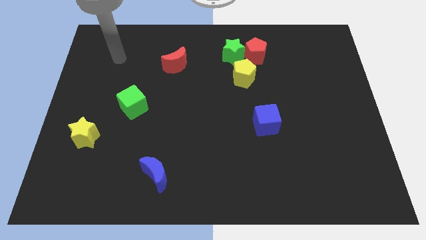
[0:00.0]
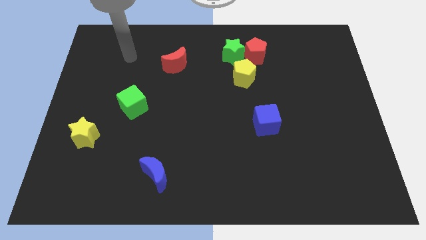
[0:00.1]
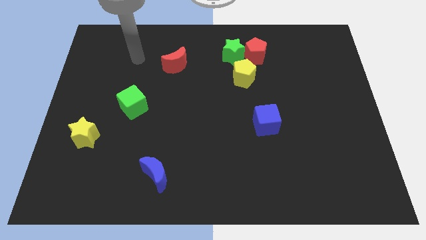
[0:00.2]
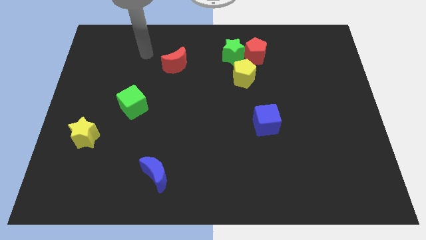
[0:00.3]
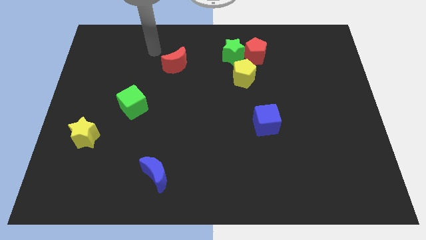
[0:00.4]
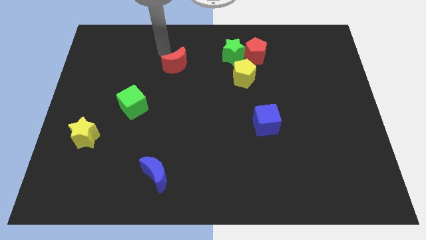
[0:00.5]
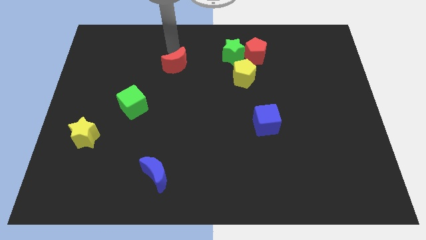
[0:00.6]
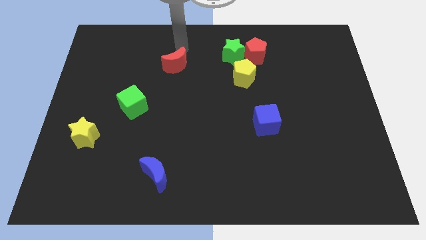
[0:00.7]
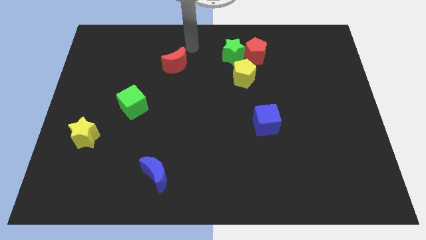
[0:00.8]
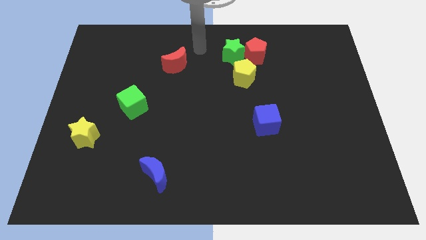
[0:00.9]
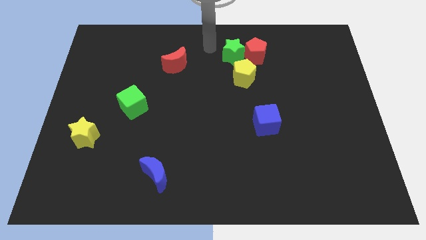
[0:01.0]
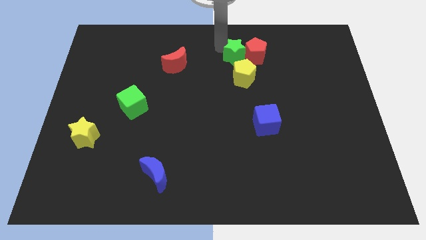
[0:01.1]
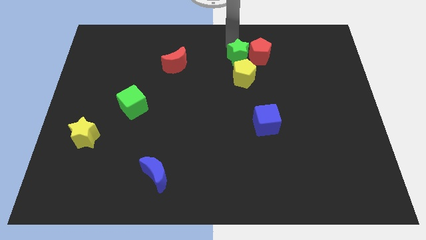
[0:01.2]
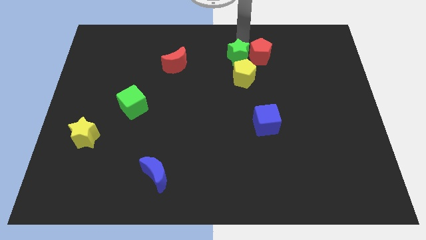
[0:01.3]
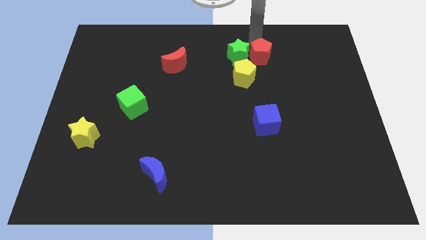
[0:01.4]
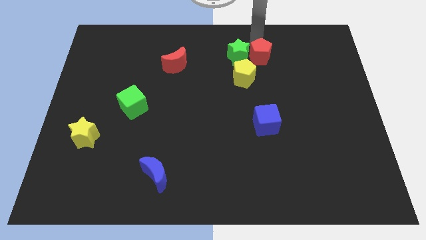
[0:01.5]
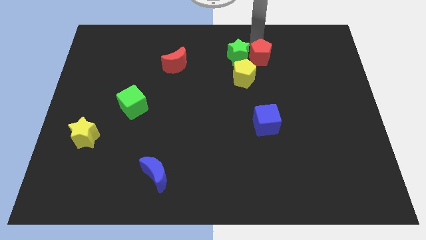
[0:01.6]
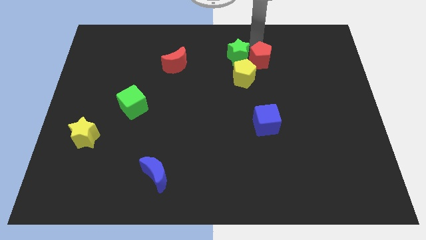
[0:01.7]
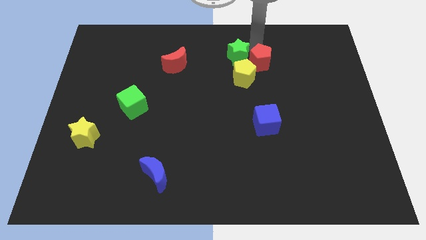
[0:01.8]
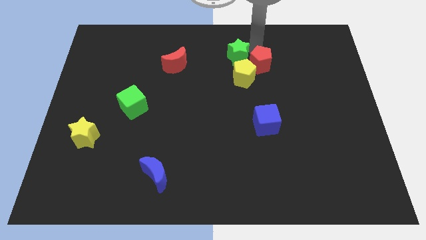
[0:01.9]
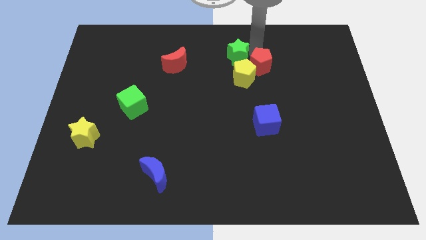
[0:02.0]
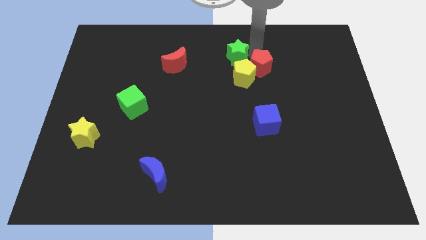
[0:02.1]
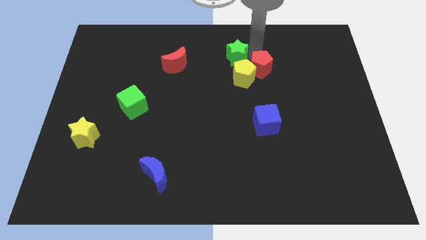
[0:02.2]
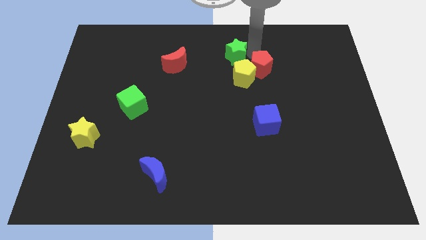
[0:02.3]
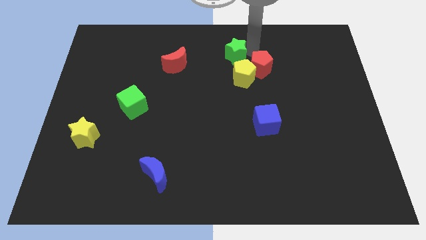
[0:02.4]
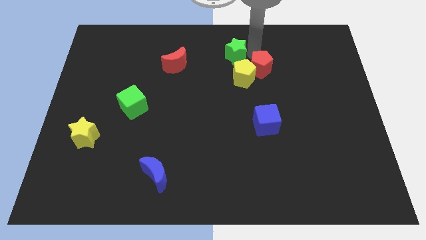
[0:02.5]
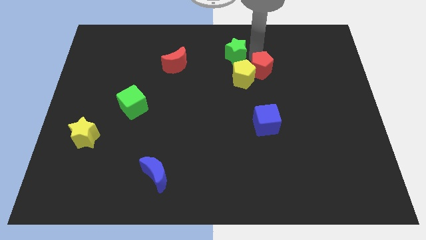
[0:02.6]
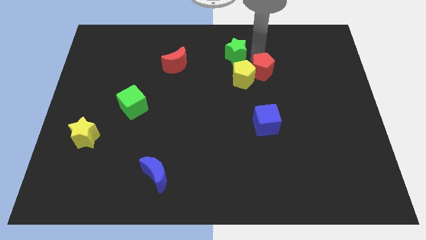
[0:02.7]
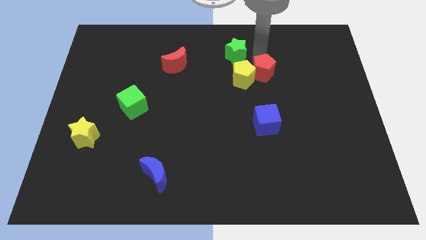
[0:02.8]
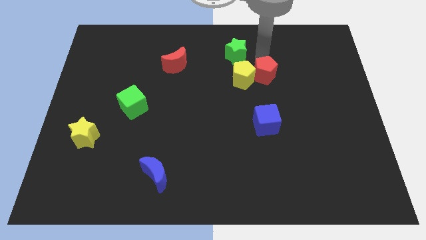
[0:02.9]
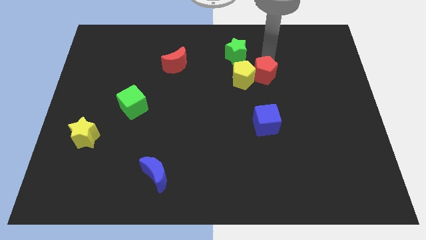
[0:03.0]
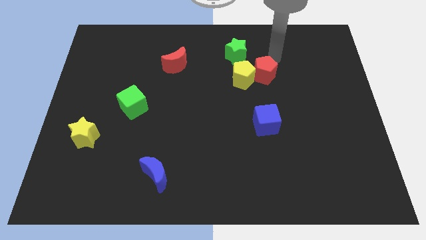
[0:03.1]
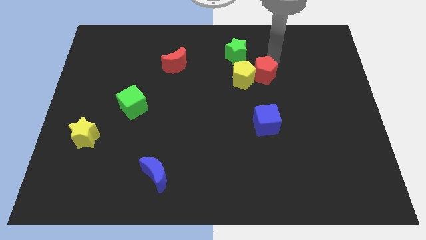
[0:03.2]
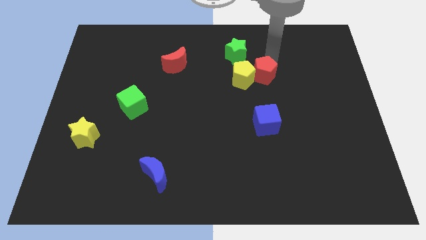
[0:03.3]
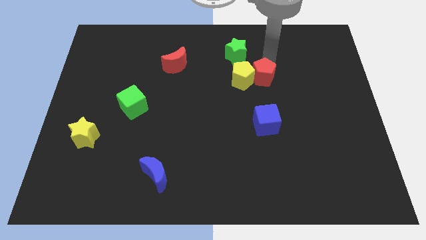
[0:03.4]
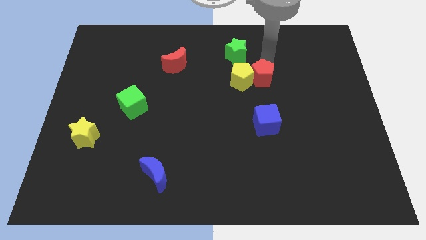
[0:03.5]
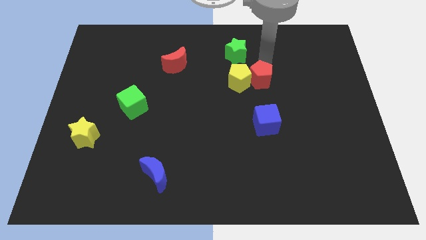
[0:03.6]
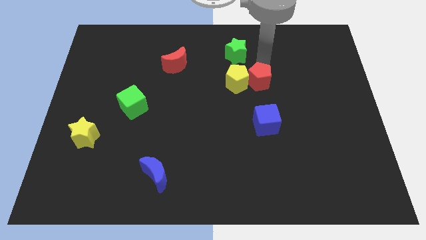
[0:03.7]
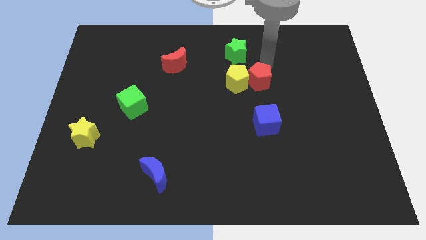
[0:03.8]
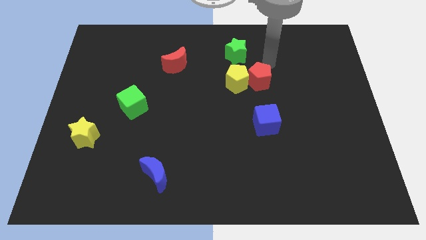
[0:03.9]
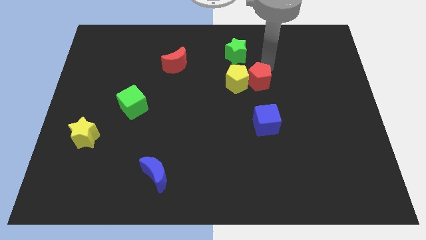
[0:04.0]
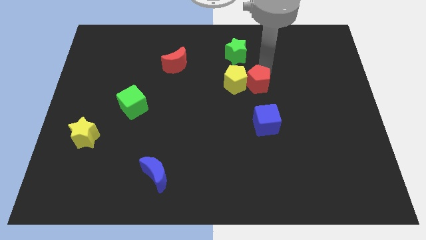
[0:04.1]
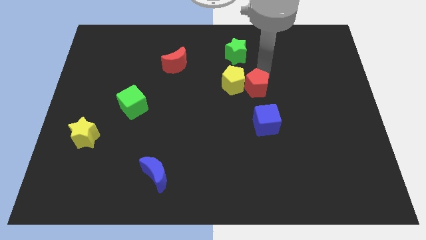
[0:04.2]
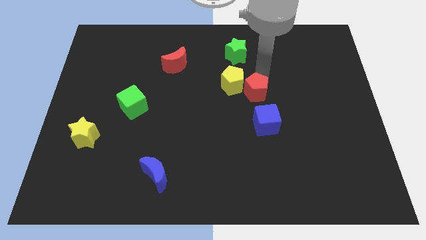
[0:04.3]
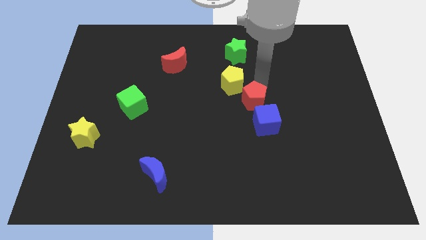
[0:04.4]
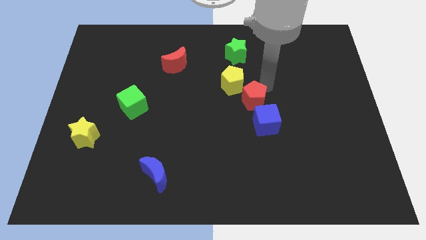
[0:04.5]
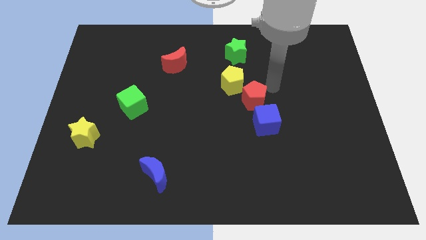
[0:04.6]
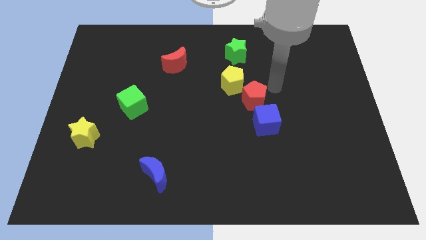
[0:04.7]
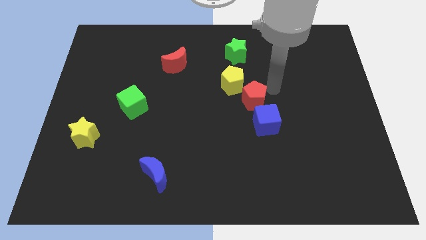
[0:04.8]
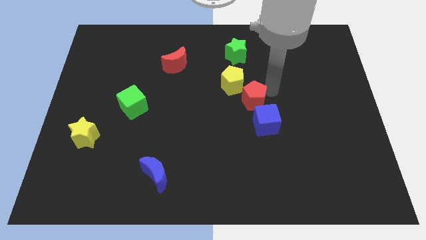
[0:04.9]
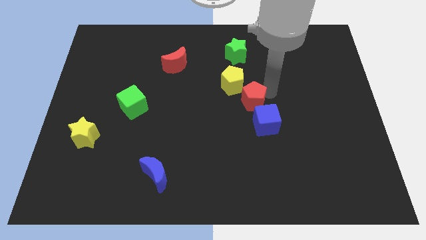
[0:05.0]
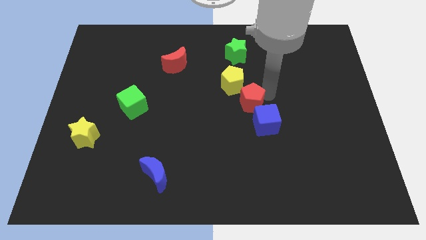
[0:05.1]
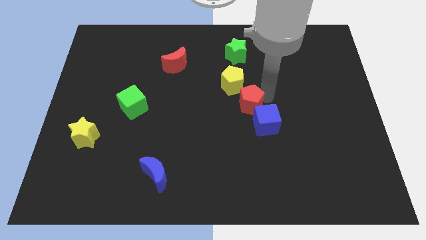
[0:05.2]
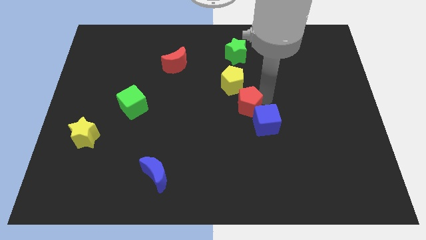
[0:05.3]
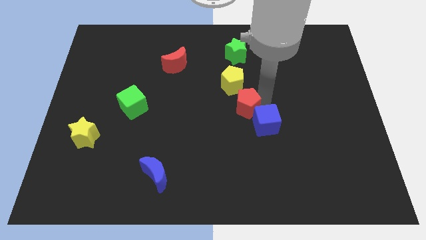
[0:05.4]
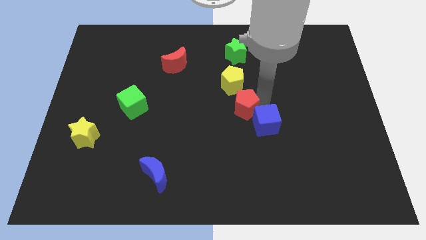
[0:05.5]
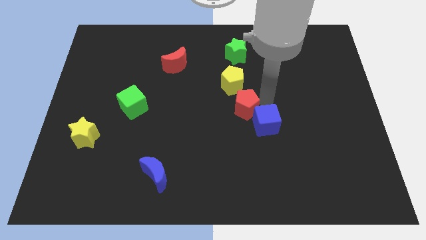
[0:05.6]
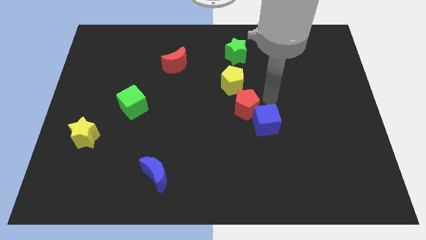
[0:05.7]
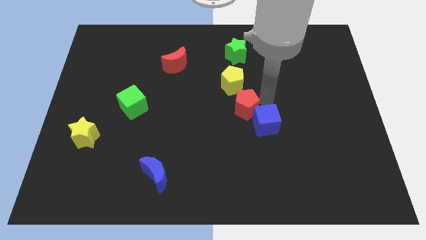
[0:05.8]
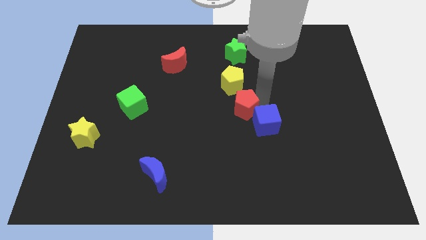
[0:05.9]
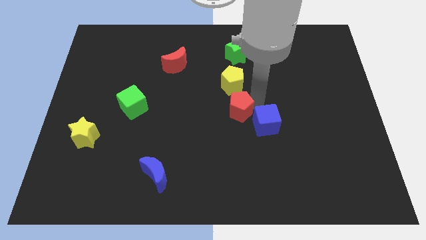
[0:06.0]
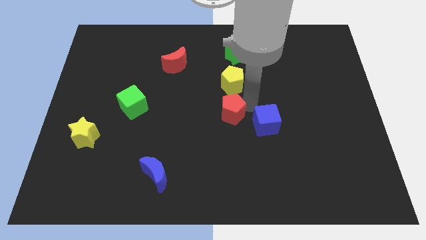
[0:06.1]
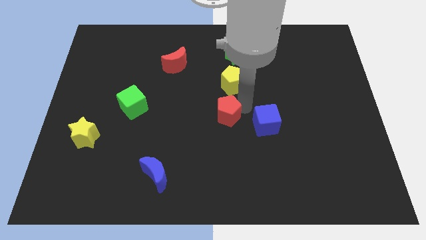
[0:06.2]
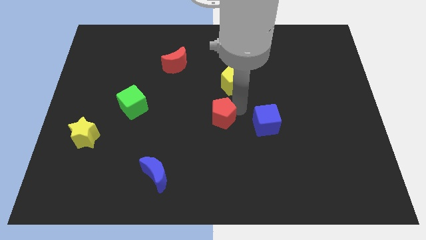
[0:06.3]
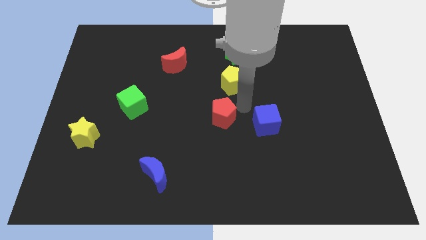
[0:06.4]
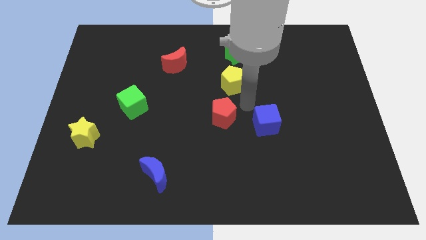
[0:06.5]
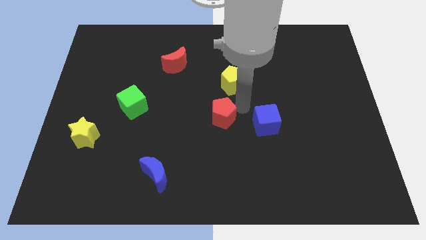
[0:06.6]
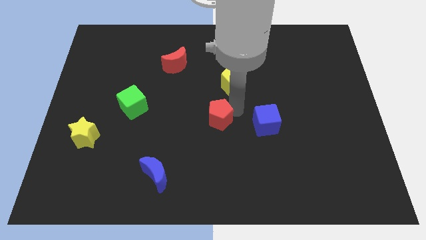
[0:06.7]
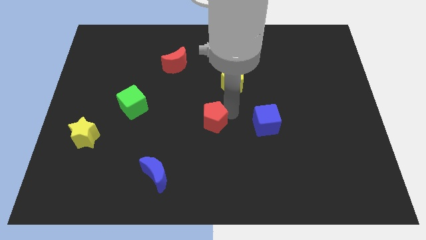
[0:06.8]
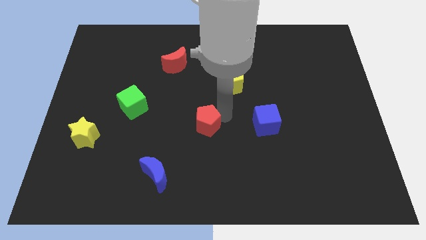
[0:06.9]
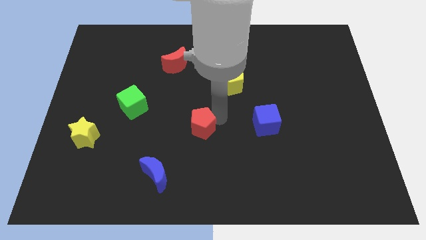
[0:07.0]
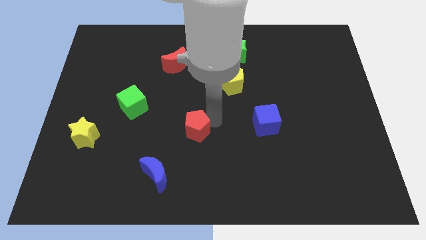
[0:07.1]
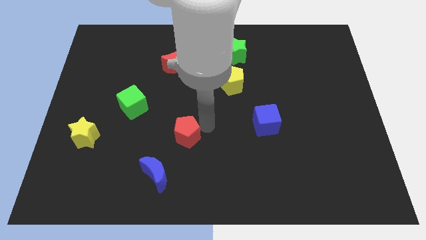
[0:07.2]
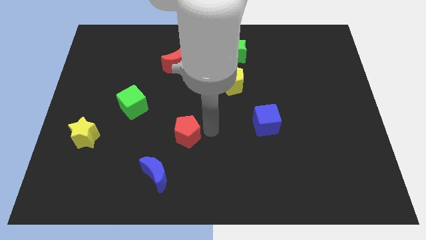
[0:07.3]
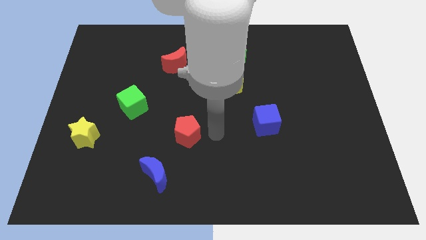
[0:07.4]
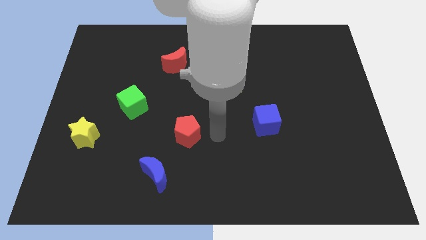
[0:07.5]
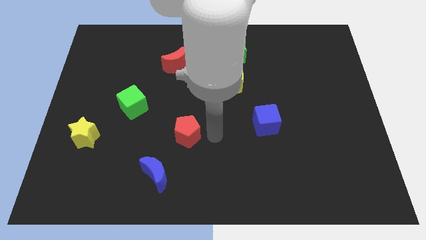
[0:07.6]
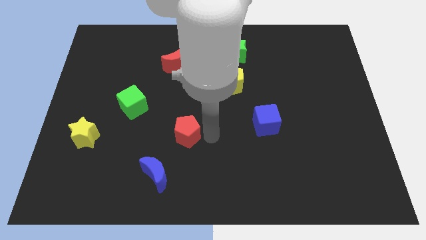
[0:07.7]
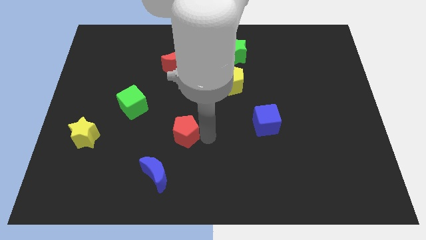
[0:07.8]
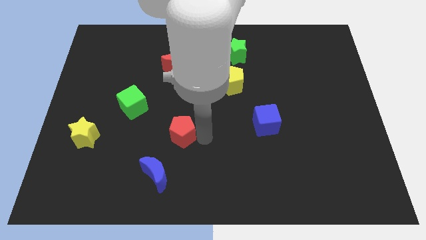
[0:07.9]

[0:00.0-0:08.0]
push the red pentagon above the blue moon
